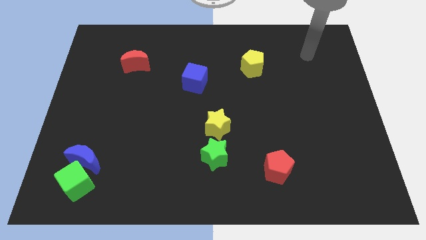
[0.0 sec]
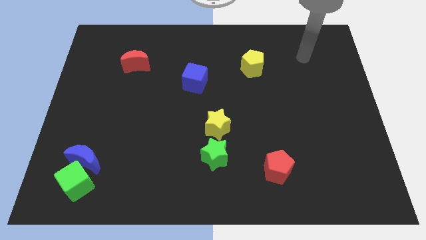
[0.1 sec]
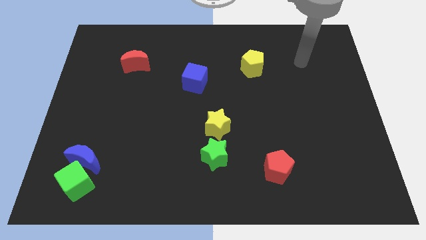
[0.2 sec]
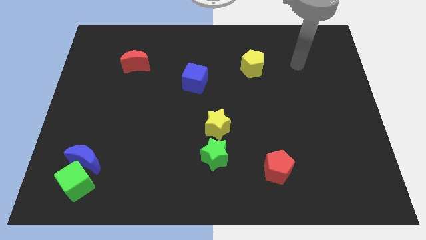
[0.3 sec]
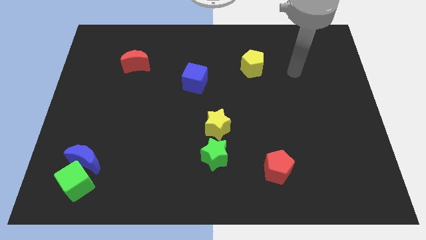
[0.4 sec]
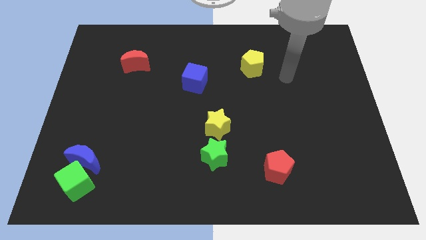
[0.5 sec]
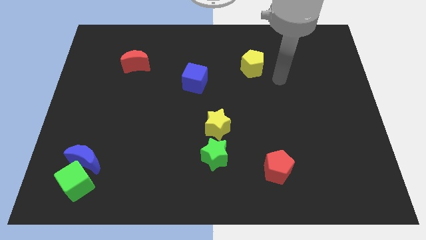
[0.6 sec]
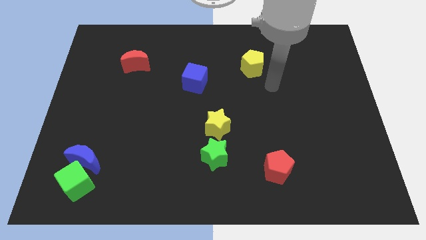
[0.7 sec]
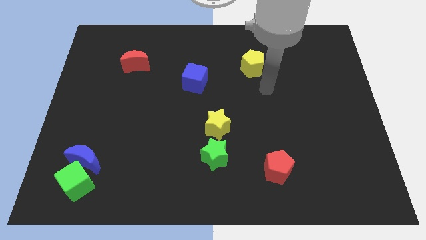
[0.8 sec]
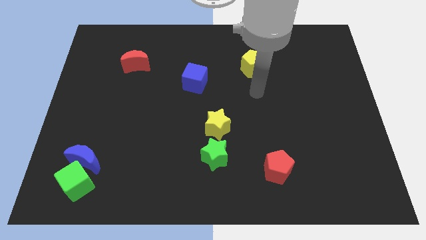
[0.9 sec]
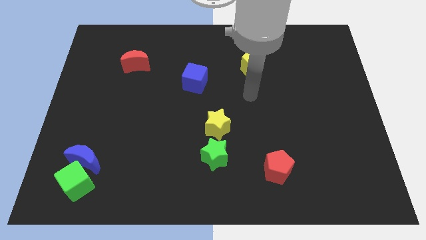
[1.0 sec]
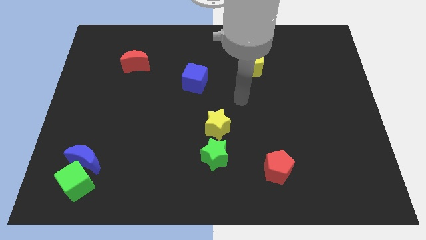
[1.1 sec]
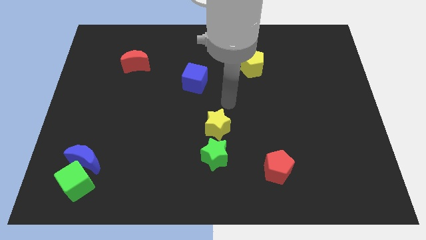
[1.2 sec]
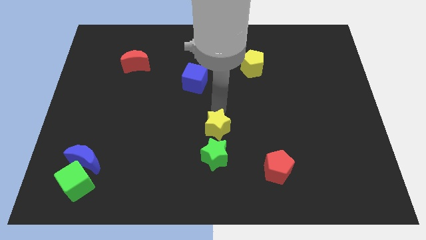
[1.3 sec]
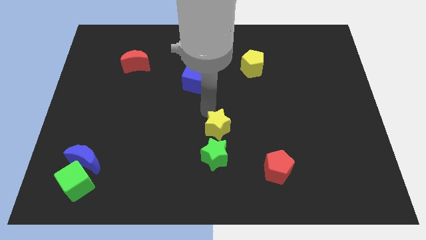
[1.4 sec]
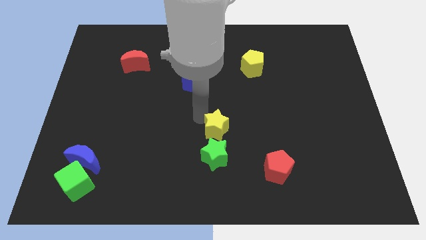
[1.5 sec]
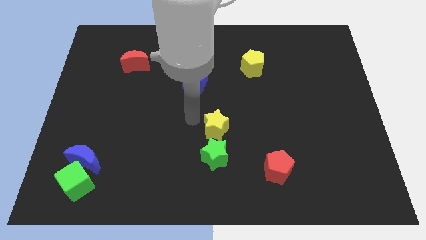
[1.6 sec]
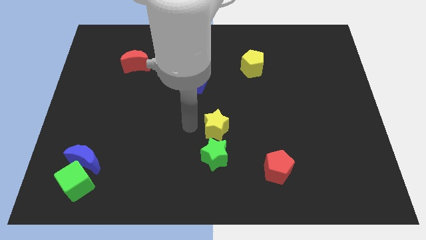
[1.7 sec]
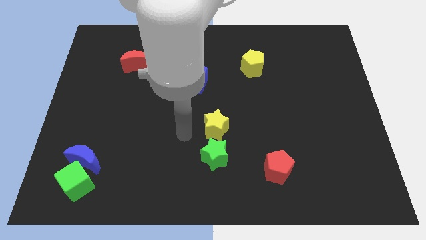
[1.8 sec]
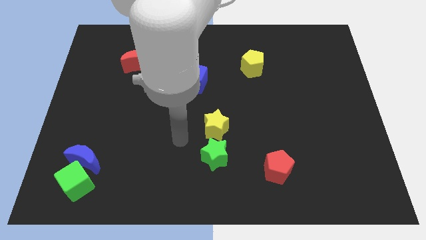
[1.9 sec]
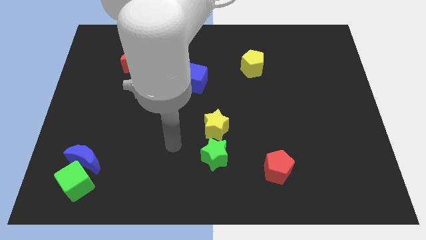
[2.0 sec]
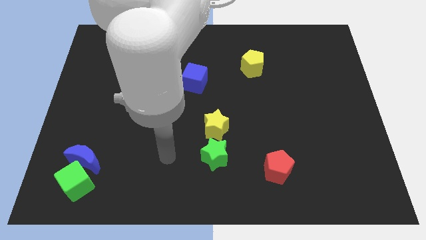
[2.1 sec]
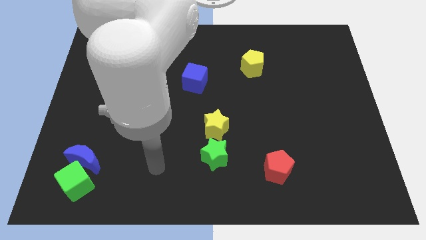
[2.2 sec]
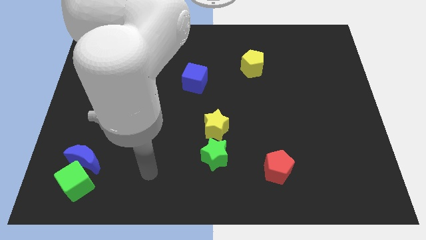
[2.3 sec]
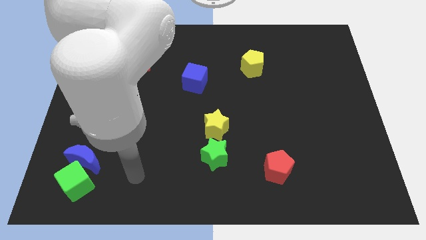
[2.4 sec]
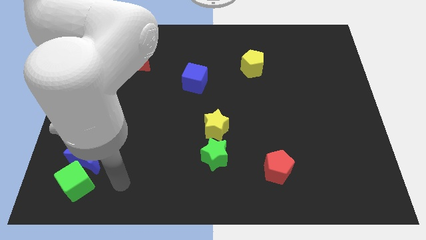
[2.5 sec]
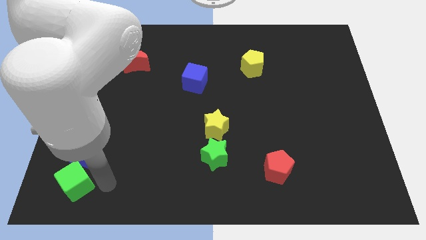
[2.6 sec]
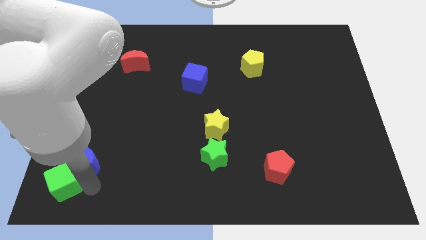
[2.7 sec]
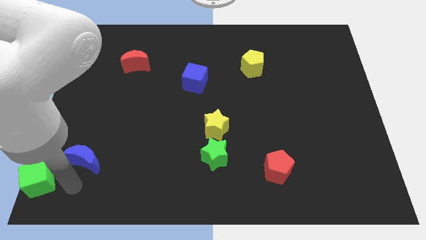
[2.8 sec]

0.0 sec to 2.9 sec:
pull the blue moon apart from the green cube

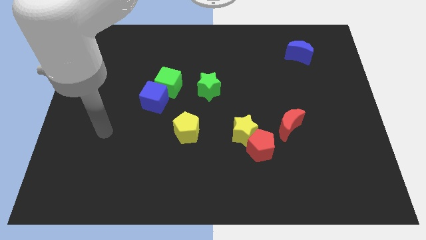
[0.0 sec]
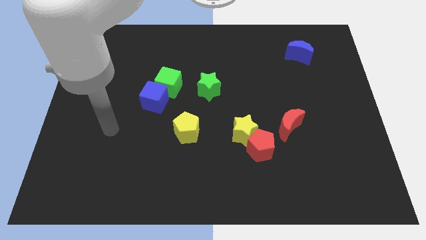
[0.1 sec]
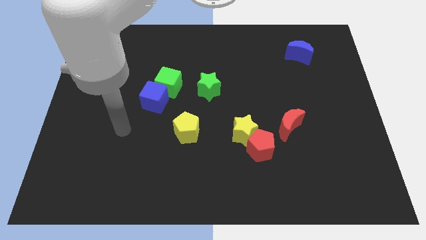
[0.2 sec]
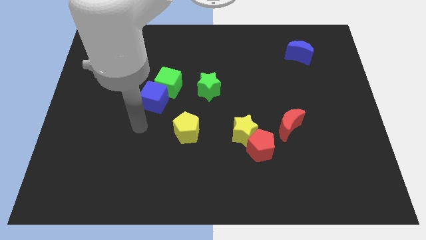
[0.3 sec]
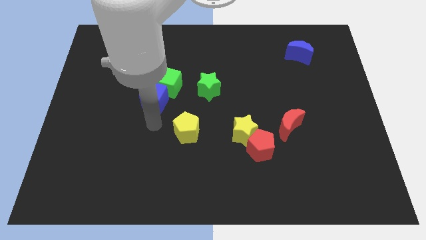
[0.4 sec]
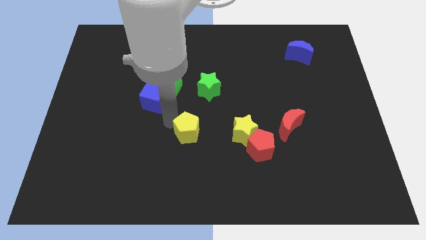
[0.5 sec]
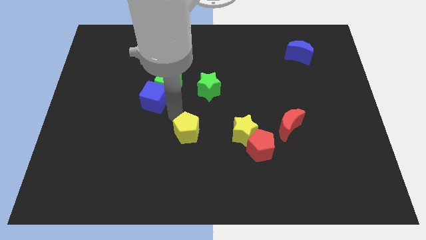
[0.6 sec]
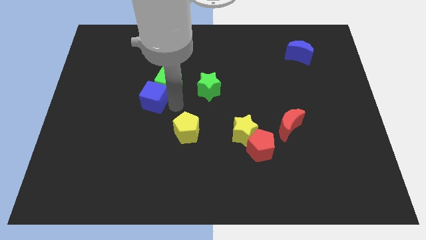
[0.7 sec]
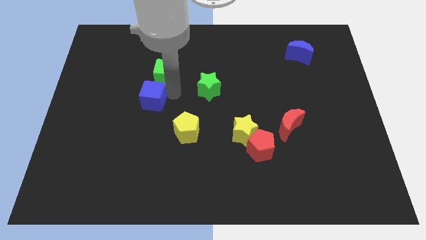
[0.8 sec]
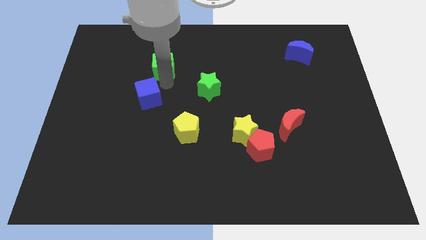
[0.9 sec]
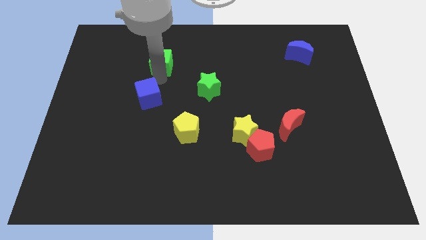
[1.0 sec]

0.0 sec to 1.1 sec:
separate the blue cube from the green cube

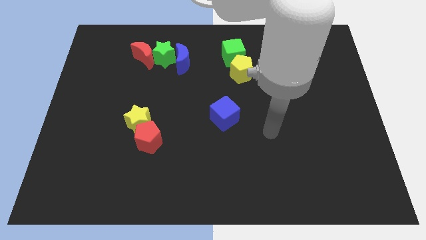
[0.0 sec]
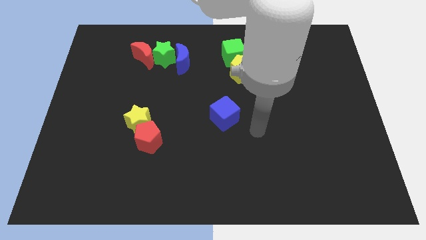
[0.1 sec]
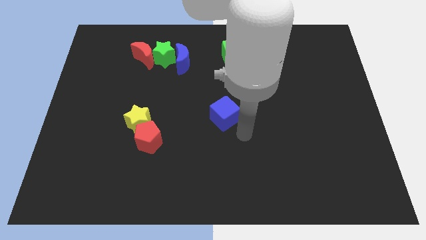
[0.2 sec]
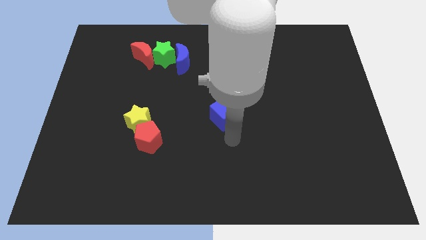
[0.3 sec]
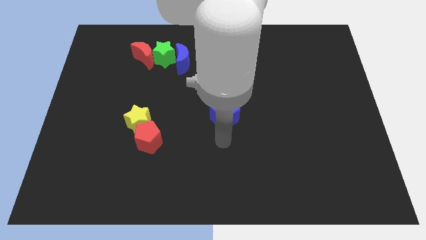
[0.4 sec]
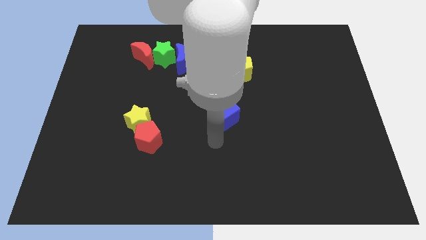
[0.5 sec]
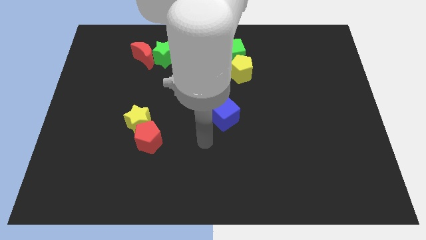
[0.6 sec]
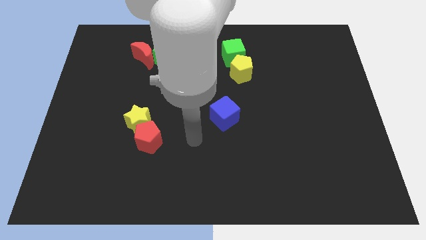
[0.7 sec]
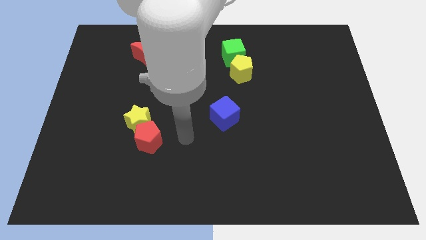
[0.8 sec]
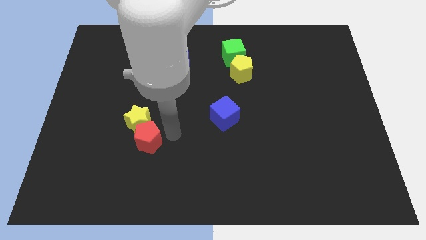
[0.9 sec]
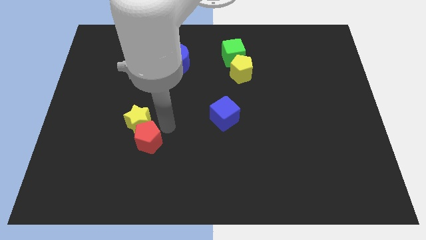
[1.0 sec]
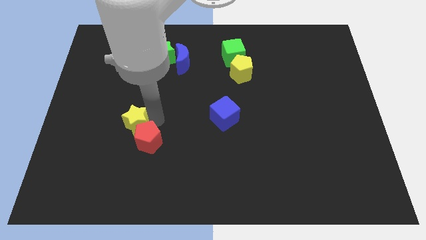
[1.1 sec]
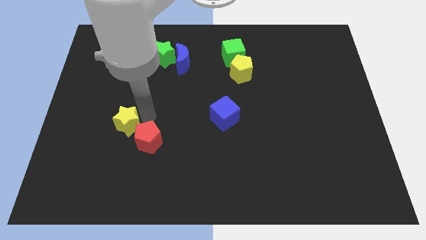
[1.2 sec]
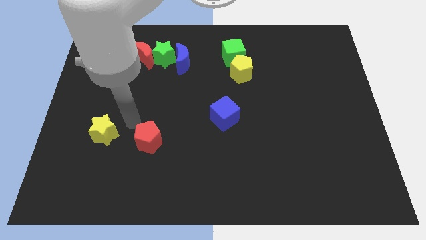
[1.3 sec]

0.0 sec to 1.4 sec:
pull the red pentagon apart from the yellow star

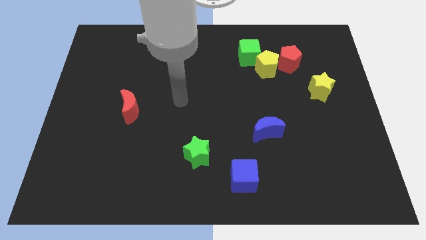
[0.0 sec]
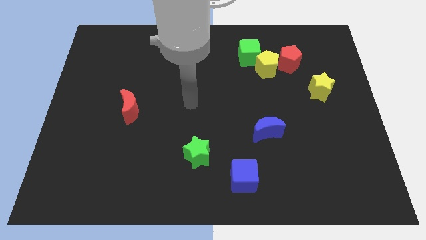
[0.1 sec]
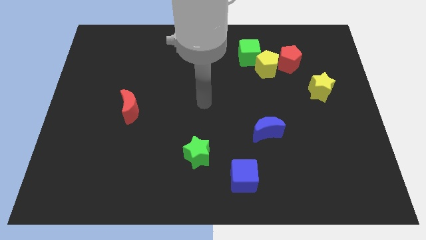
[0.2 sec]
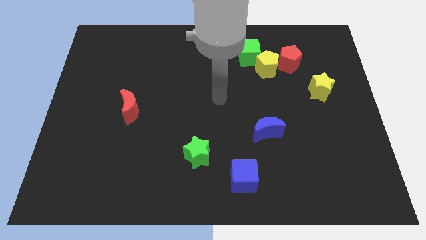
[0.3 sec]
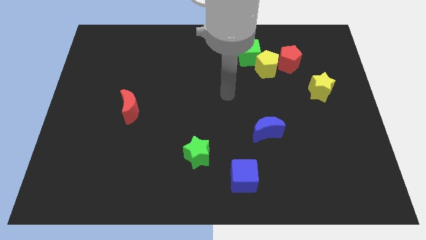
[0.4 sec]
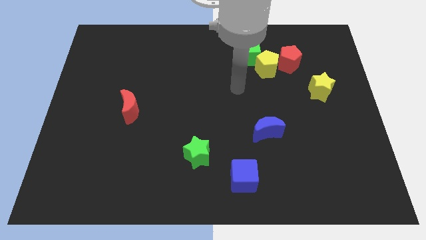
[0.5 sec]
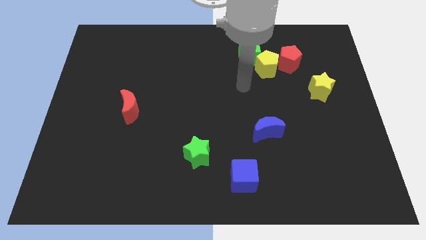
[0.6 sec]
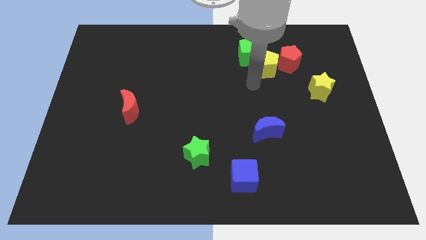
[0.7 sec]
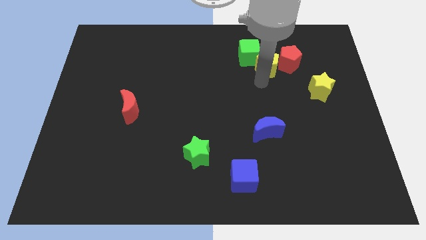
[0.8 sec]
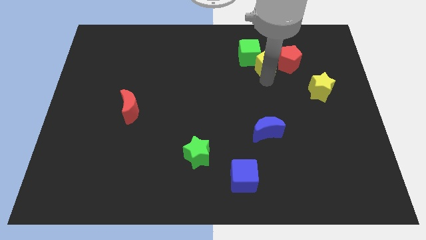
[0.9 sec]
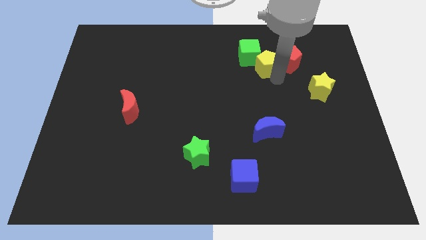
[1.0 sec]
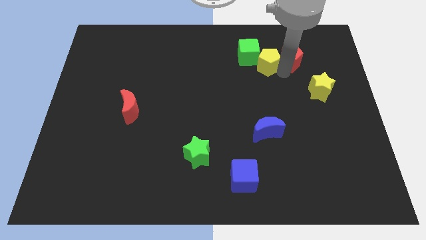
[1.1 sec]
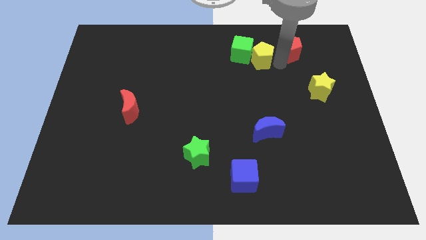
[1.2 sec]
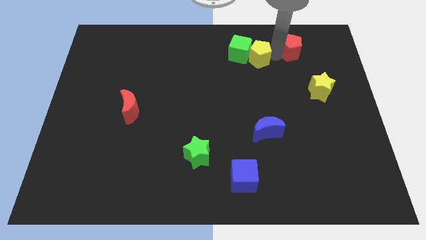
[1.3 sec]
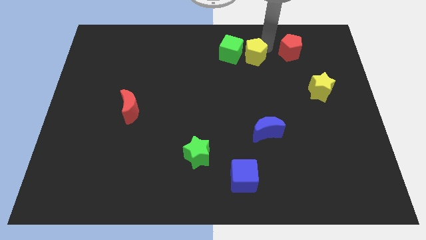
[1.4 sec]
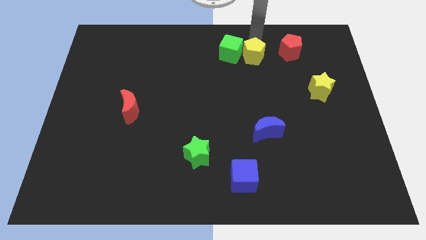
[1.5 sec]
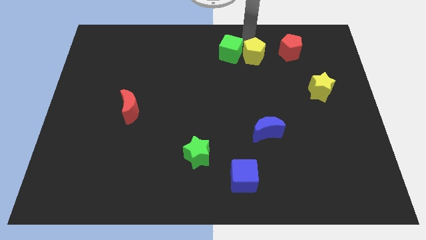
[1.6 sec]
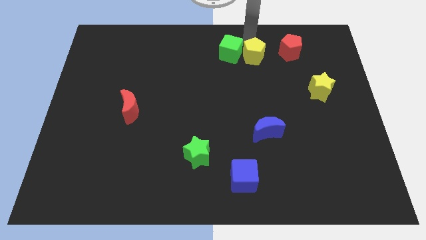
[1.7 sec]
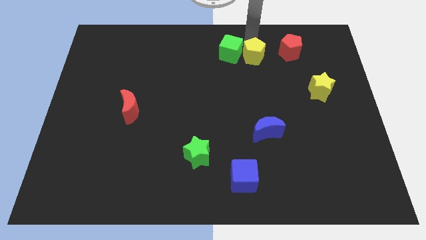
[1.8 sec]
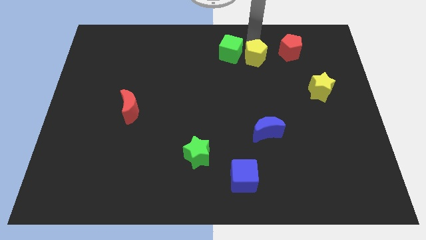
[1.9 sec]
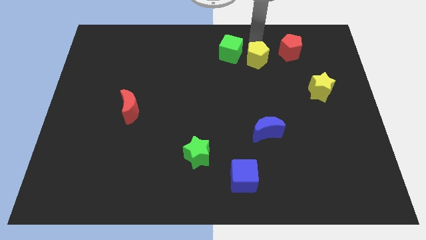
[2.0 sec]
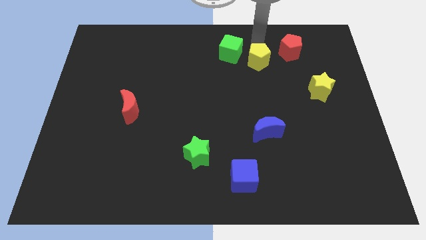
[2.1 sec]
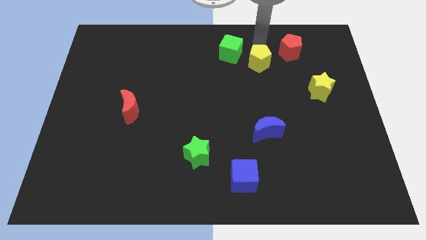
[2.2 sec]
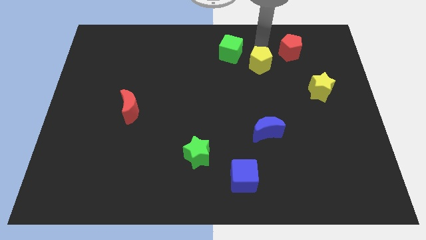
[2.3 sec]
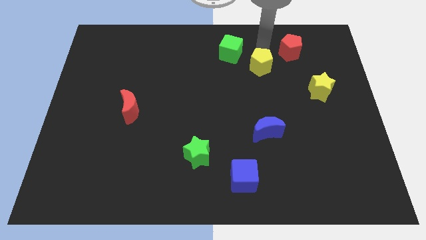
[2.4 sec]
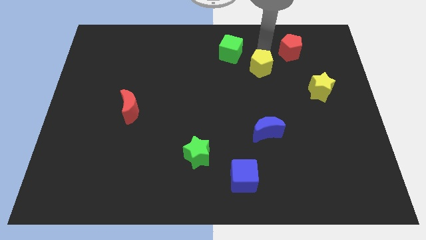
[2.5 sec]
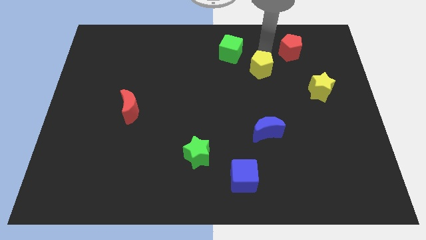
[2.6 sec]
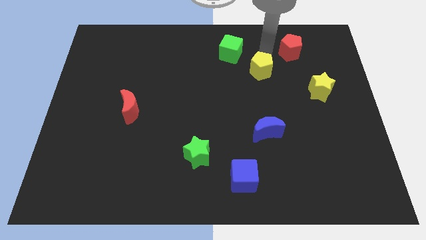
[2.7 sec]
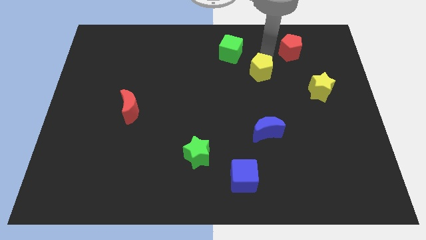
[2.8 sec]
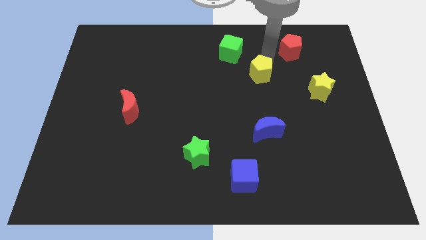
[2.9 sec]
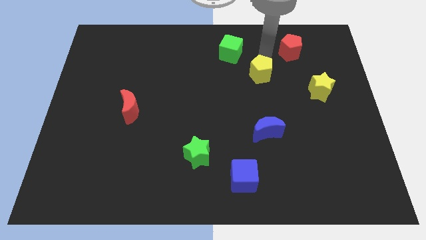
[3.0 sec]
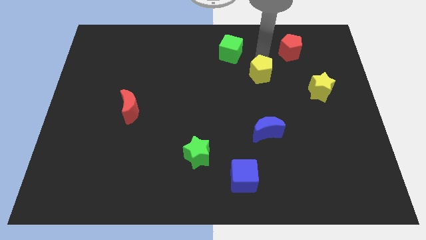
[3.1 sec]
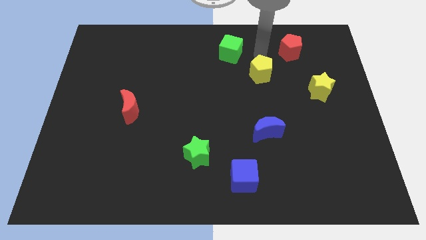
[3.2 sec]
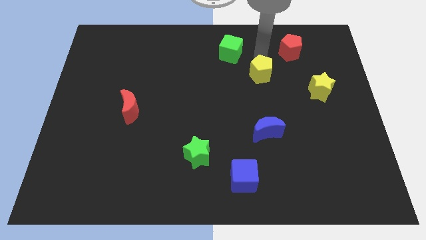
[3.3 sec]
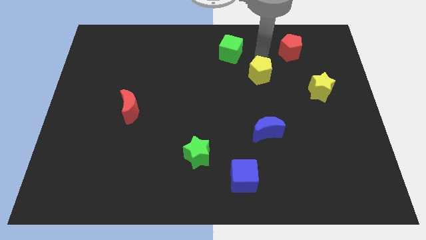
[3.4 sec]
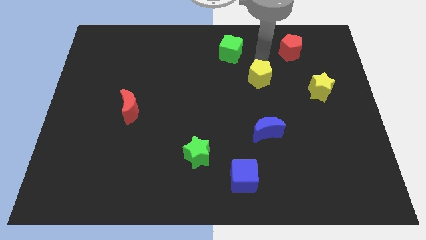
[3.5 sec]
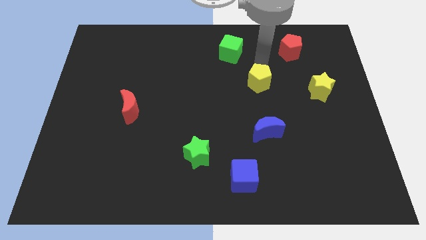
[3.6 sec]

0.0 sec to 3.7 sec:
move the yellow pentagon away from the red pentagon and green cube

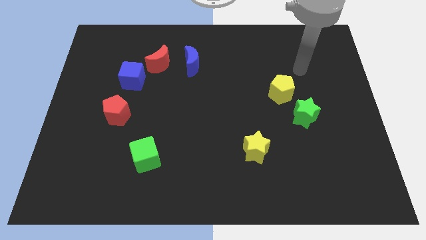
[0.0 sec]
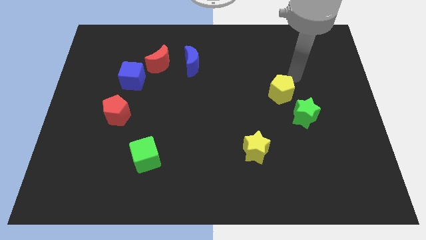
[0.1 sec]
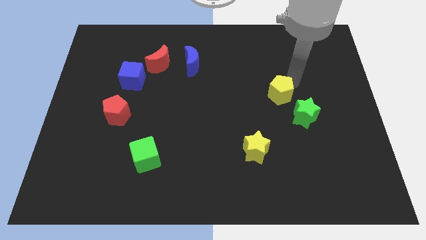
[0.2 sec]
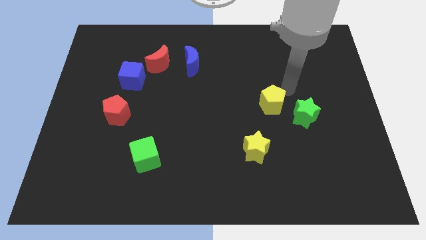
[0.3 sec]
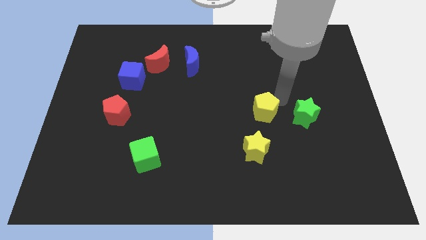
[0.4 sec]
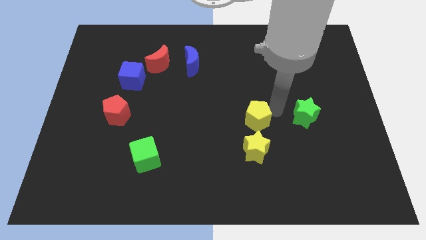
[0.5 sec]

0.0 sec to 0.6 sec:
pull the green star apart from the yellow pentagon
